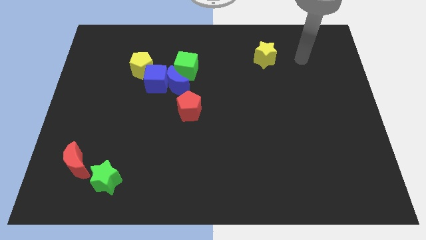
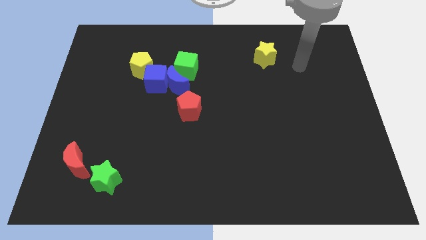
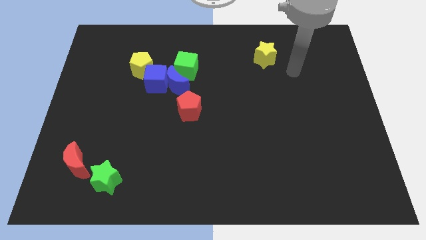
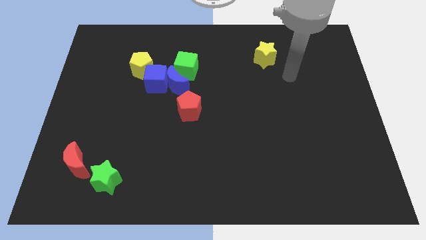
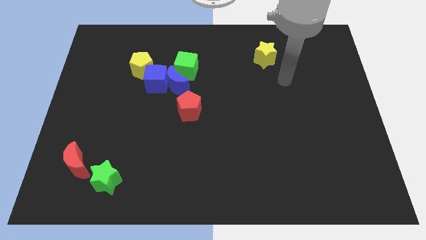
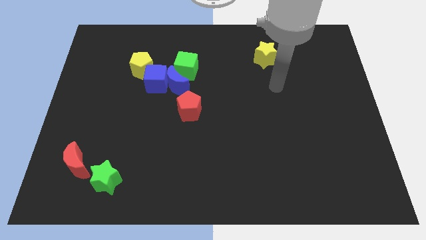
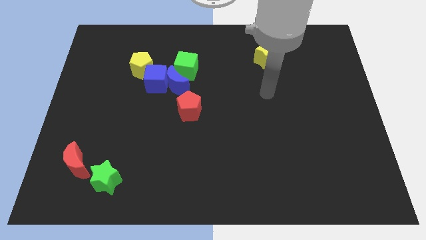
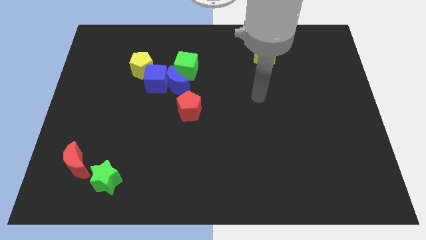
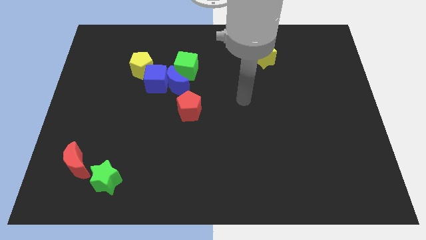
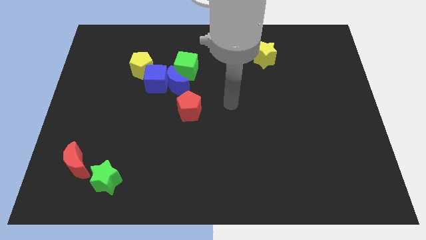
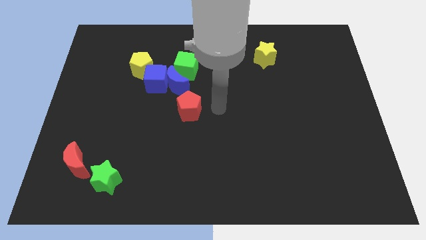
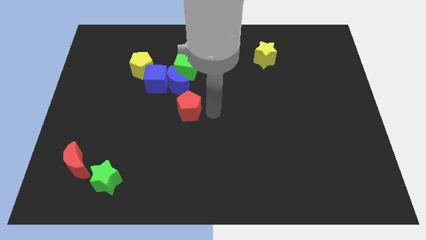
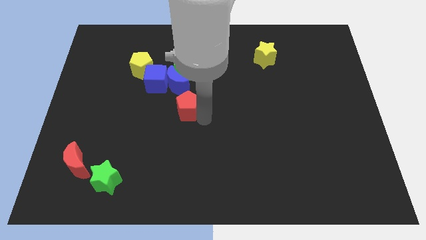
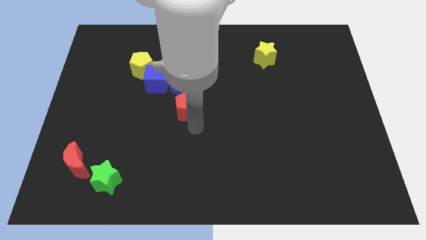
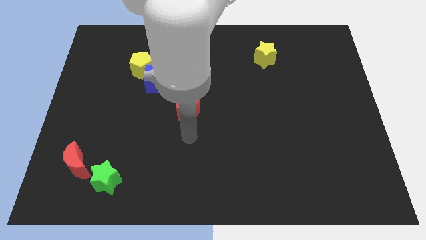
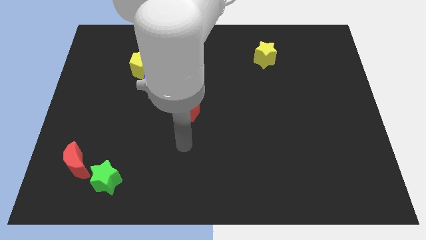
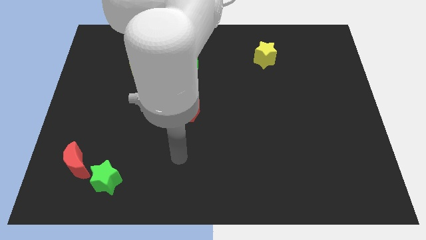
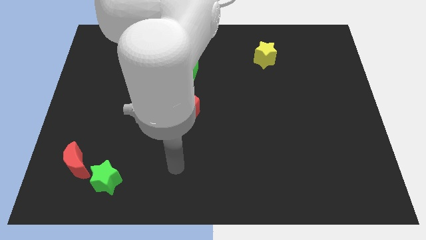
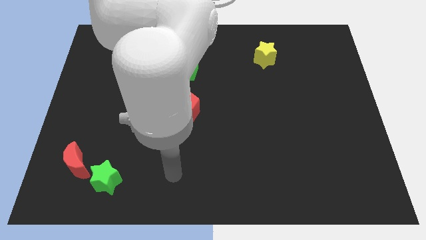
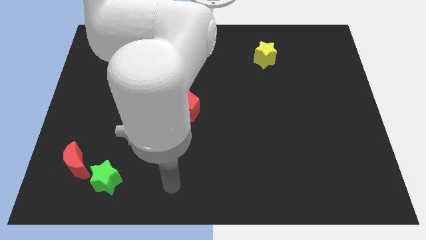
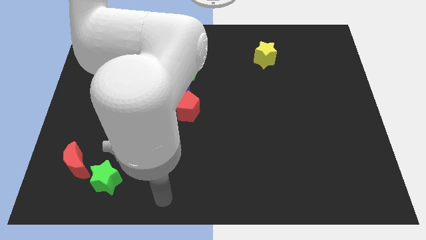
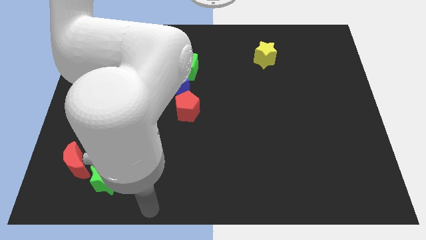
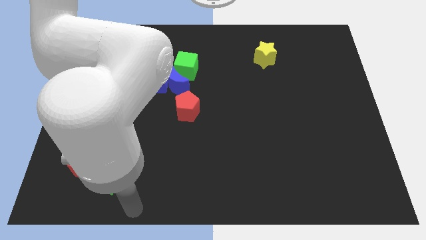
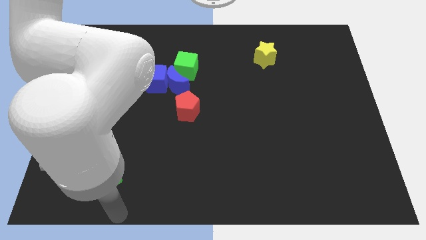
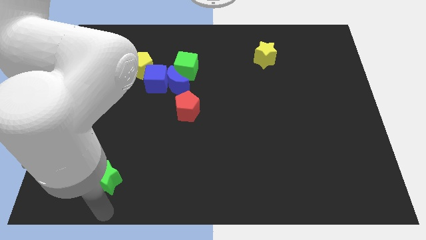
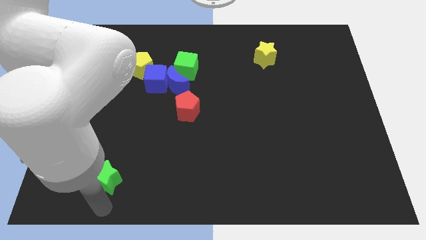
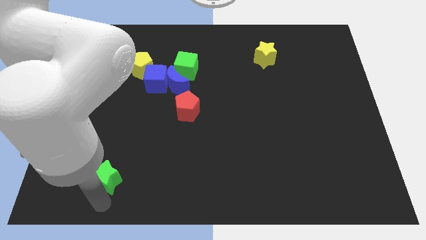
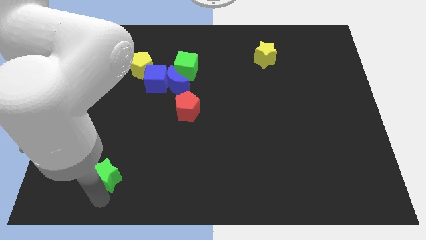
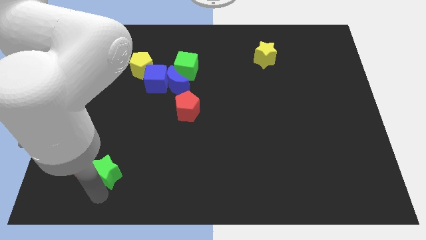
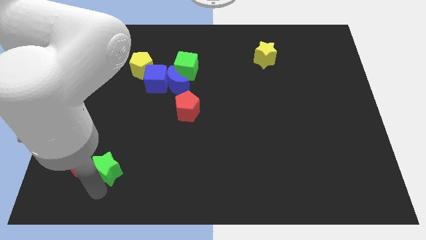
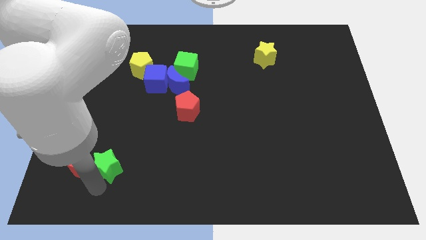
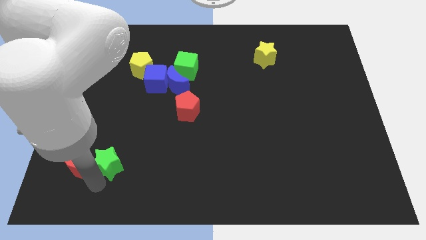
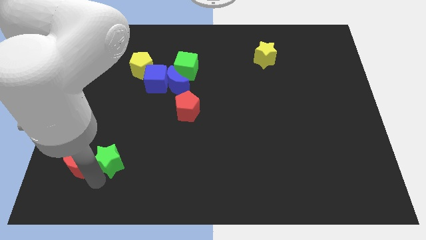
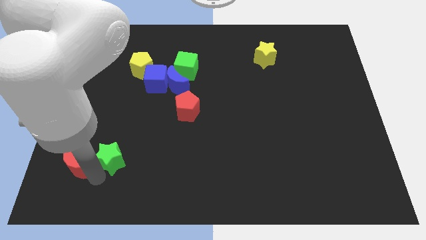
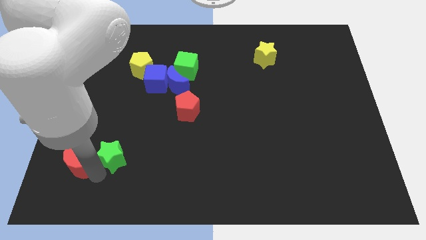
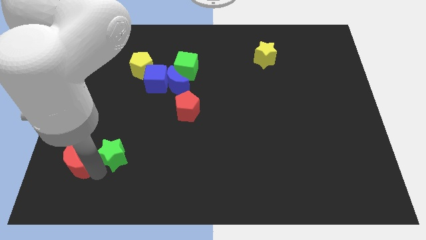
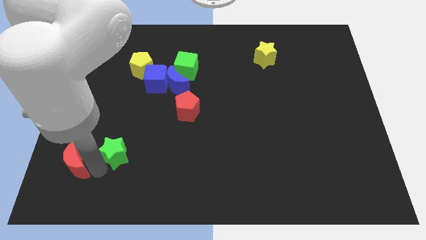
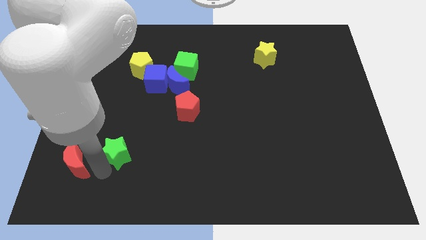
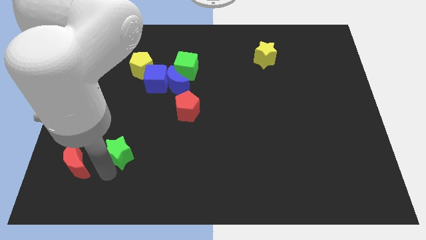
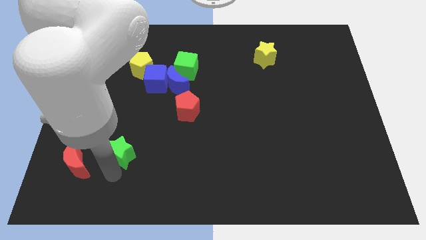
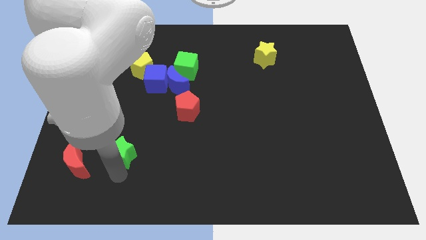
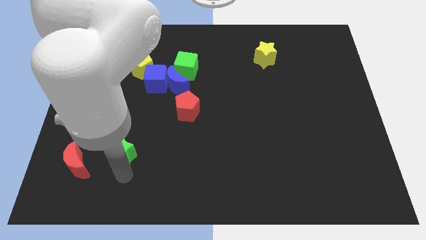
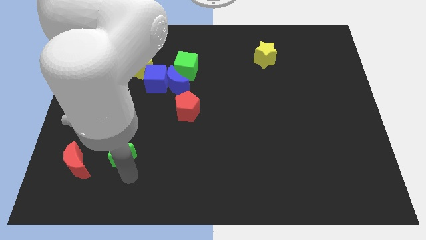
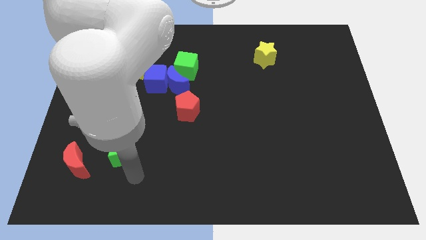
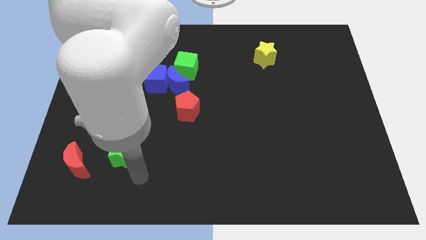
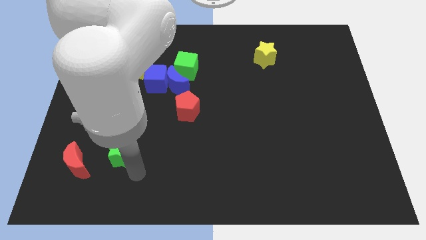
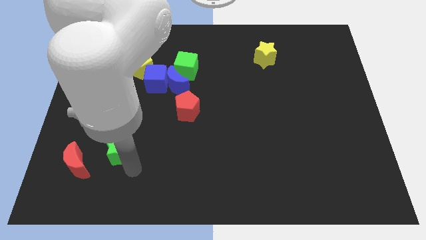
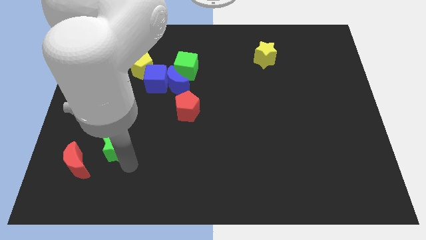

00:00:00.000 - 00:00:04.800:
slightly push the green star up

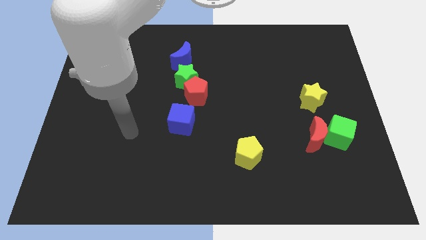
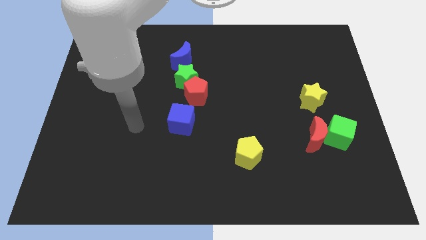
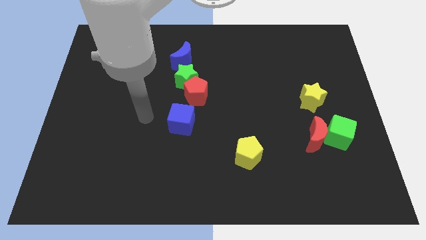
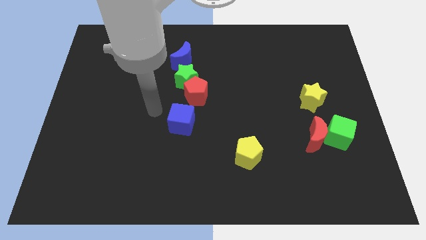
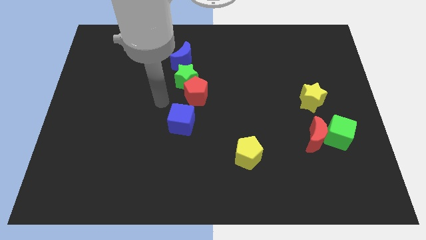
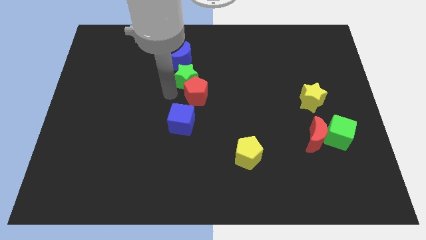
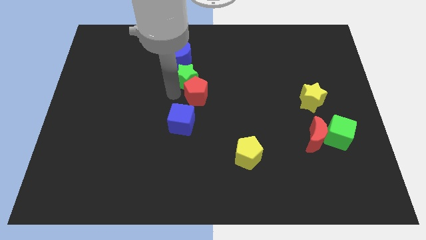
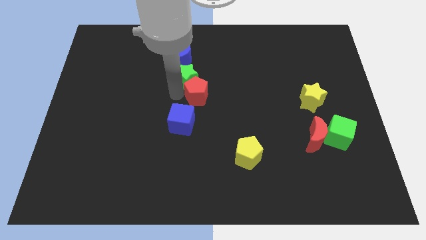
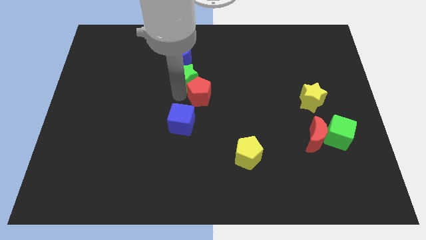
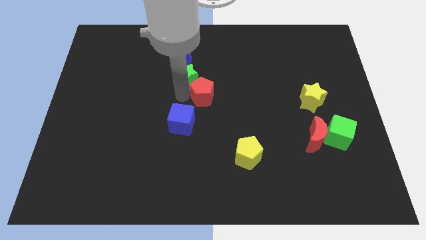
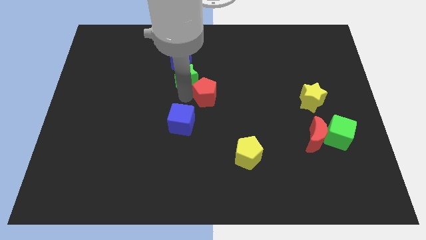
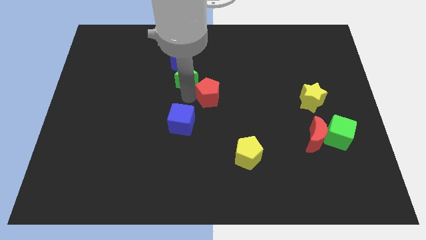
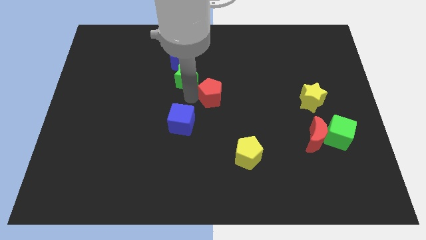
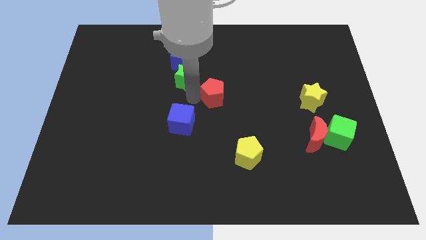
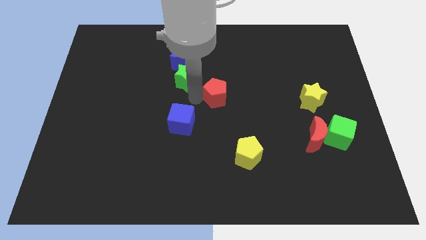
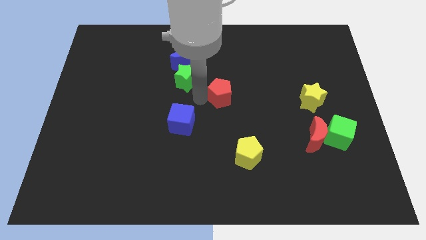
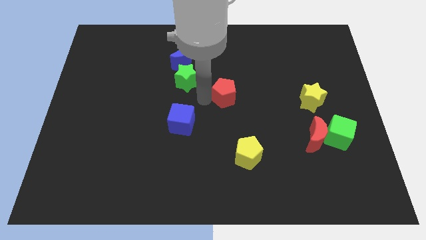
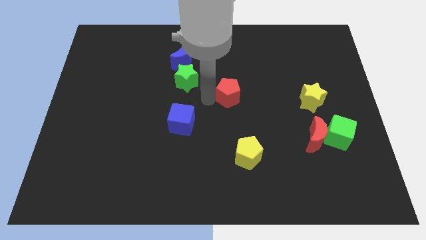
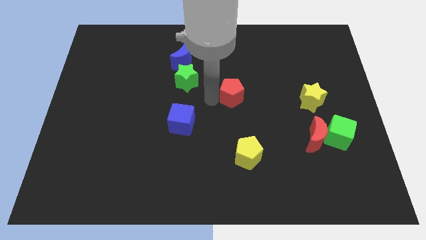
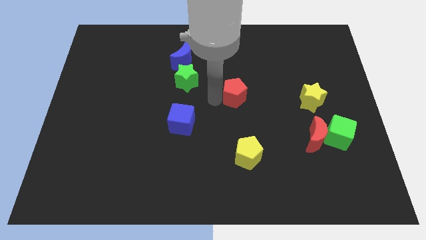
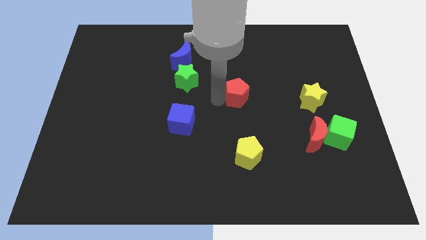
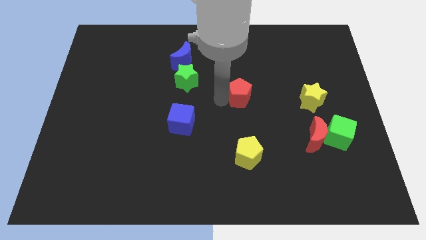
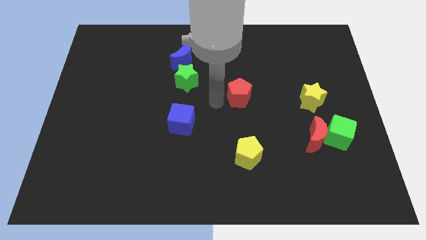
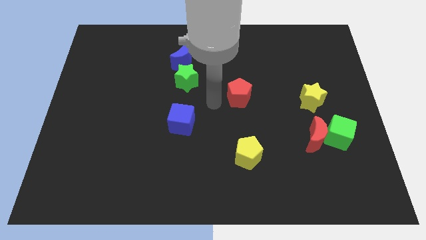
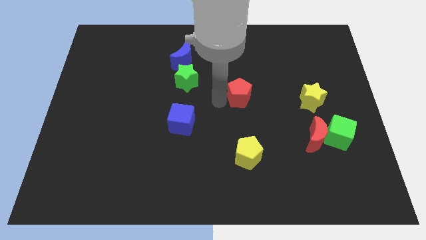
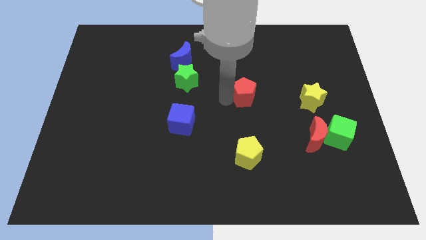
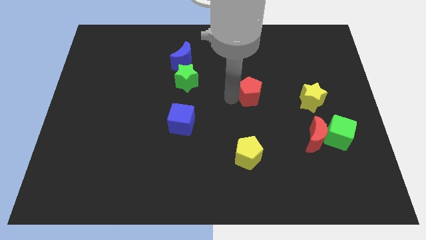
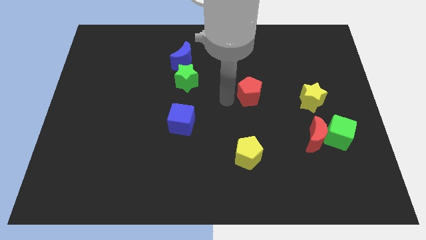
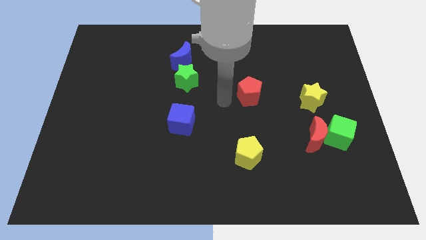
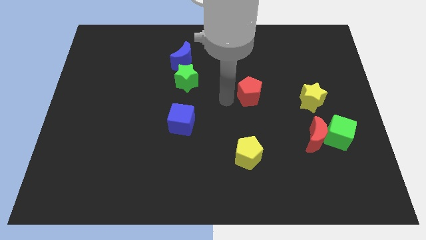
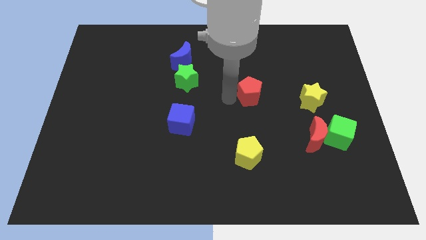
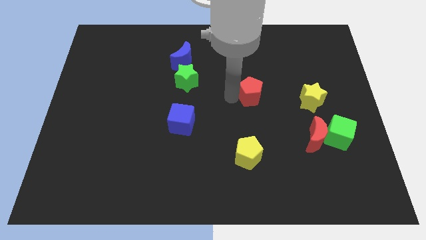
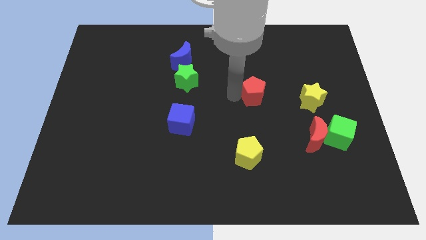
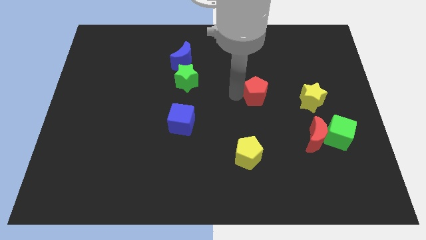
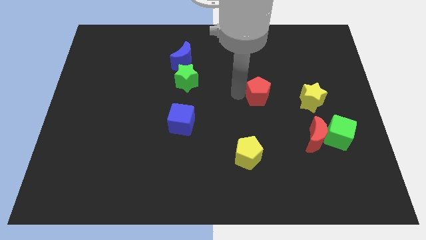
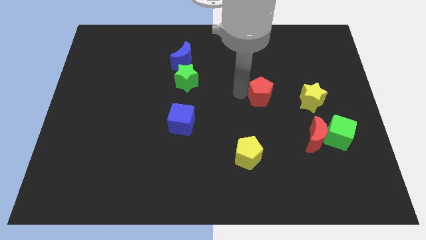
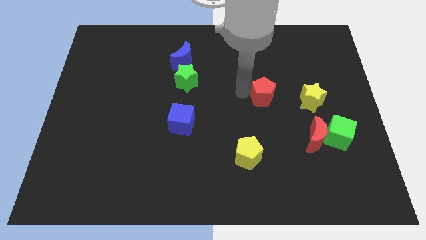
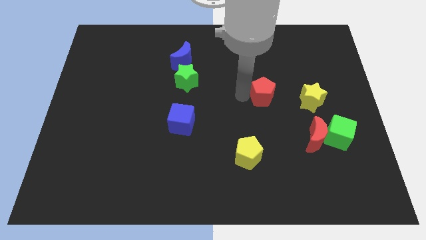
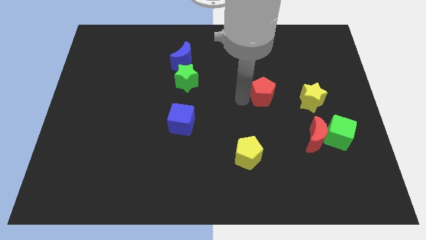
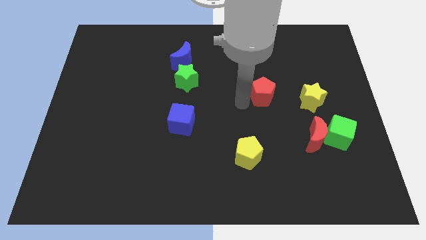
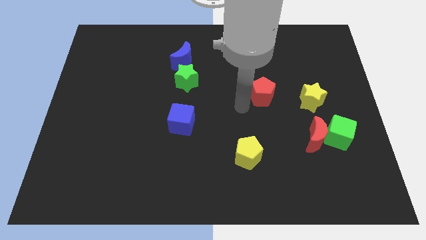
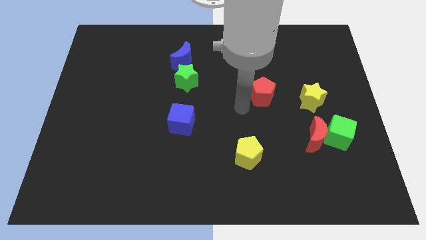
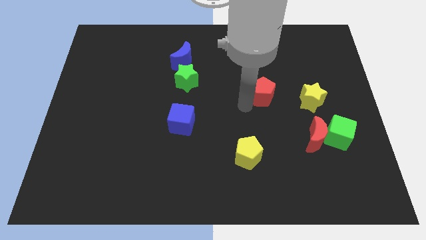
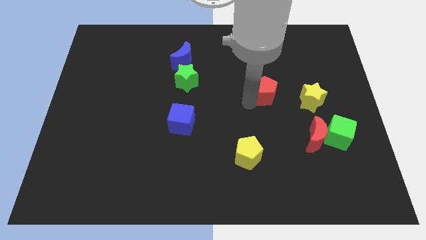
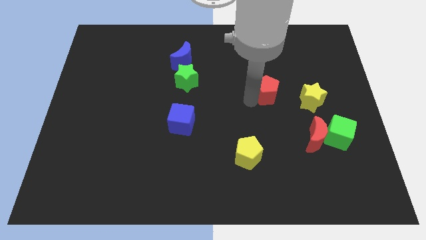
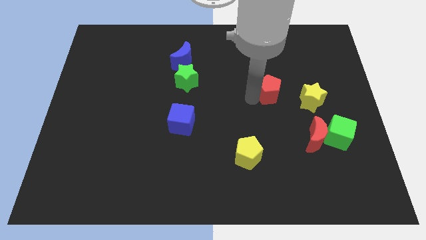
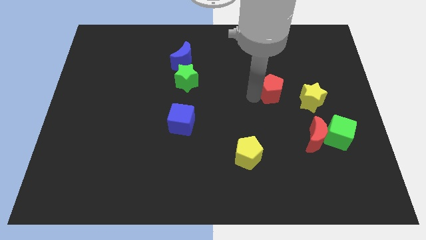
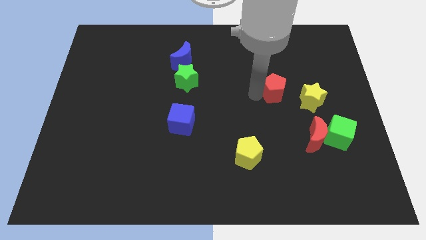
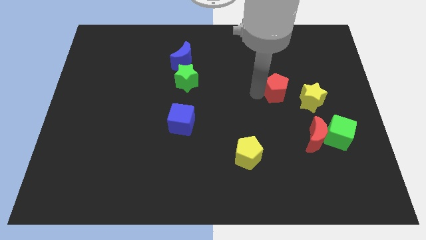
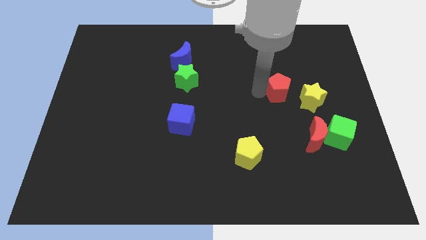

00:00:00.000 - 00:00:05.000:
push the red pentagon right
